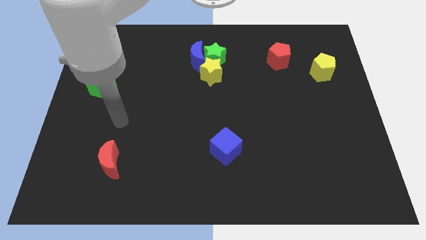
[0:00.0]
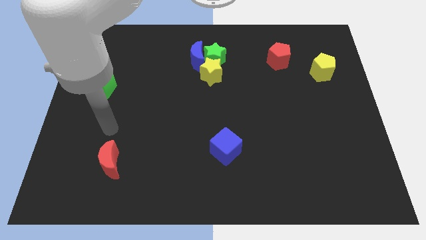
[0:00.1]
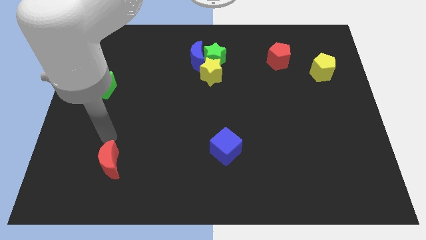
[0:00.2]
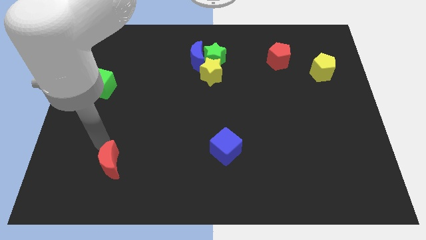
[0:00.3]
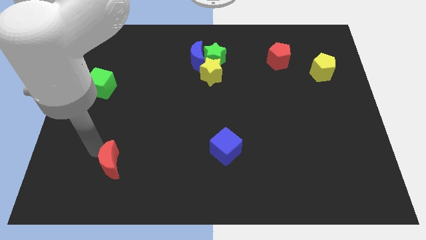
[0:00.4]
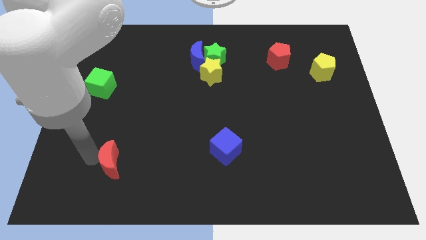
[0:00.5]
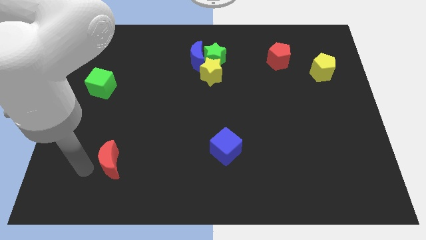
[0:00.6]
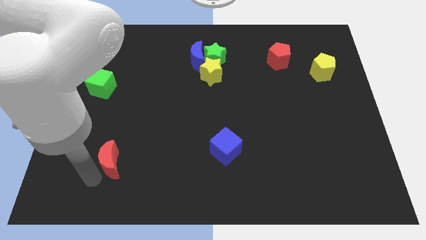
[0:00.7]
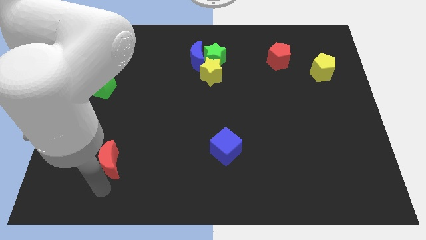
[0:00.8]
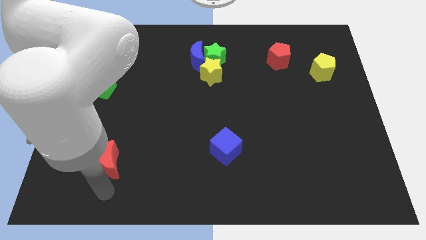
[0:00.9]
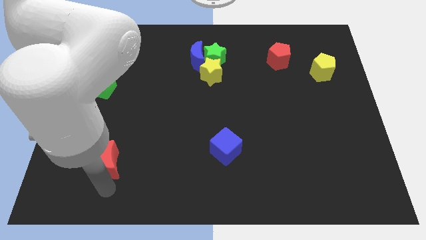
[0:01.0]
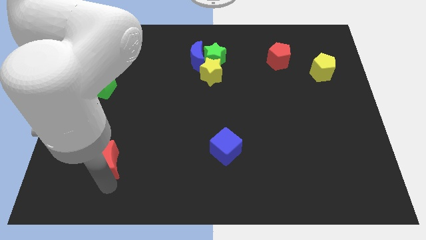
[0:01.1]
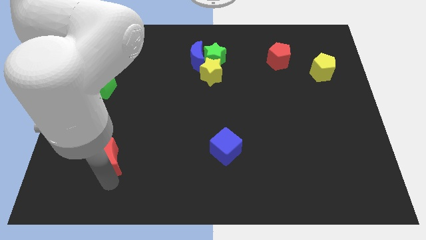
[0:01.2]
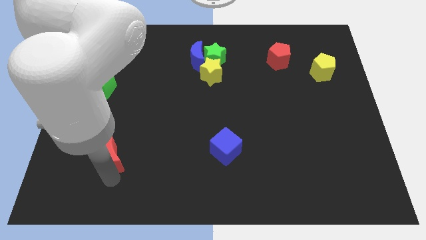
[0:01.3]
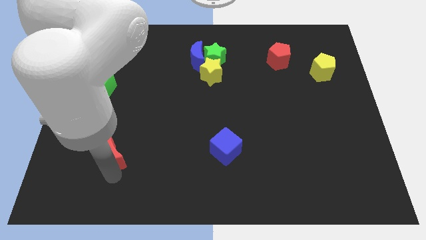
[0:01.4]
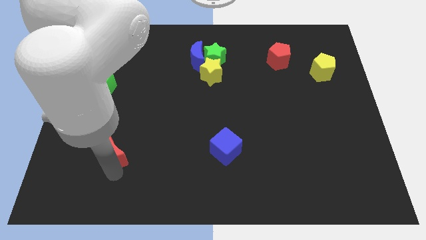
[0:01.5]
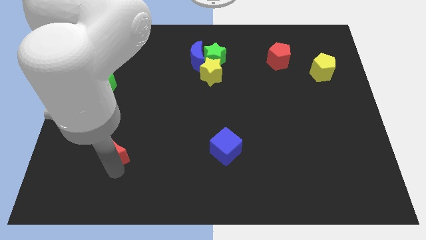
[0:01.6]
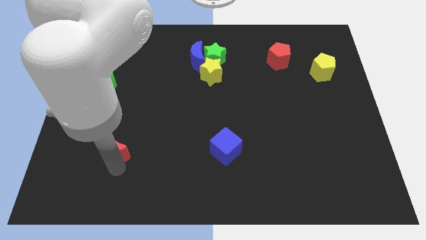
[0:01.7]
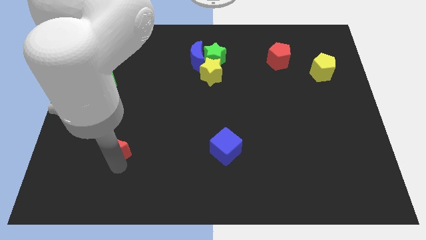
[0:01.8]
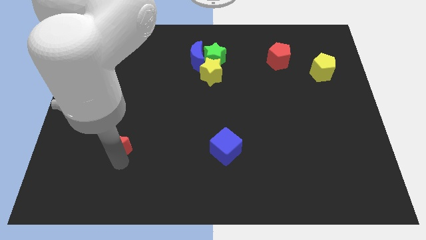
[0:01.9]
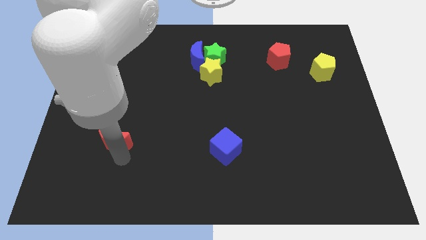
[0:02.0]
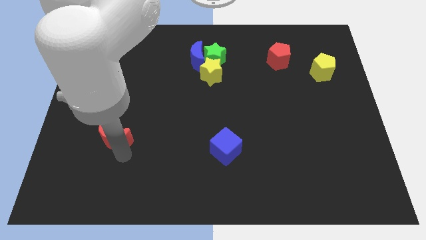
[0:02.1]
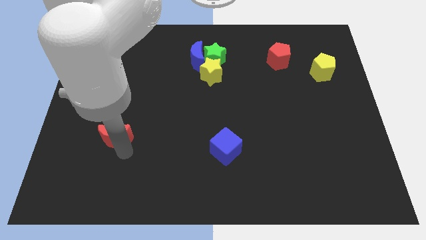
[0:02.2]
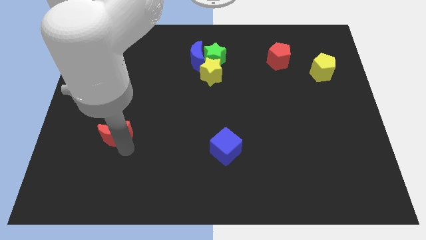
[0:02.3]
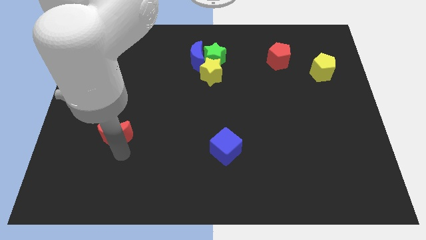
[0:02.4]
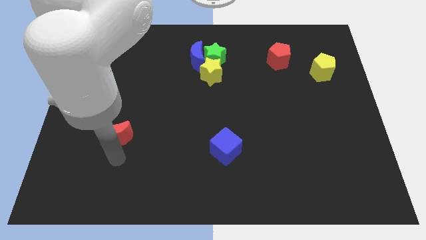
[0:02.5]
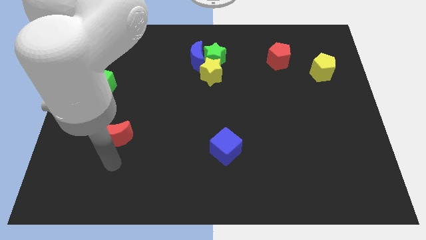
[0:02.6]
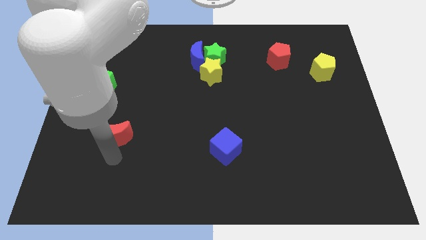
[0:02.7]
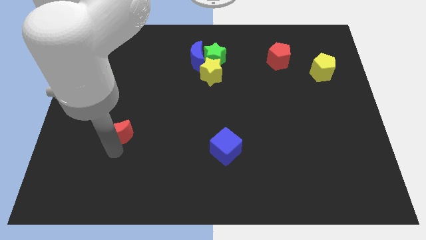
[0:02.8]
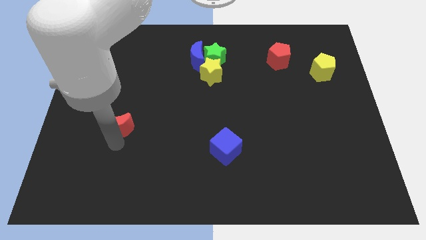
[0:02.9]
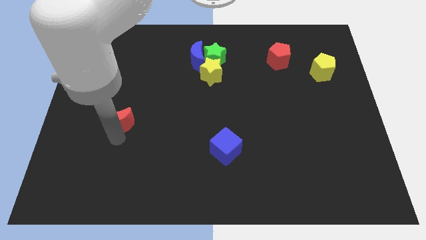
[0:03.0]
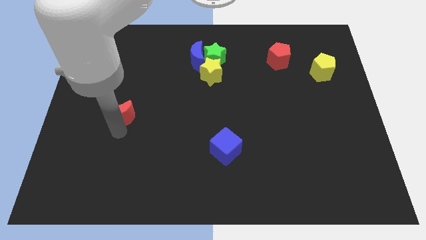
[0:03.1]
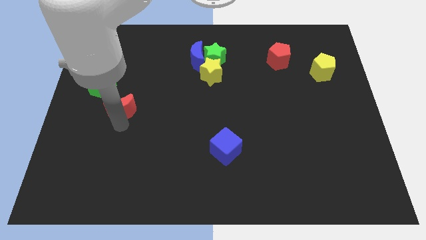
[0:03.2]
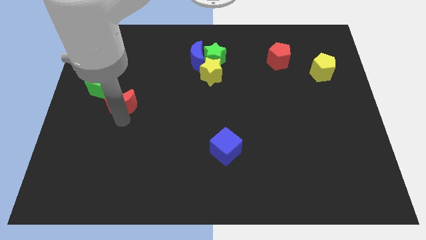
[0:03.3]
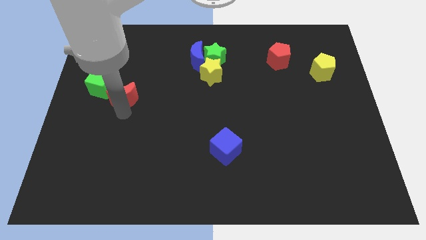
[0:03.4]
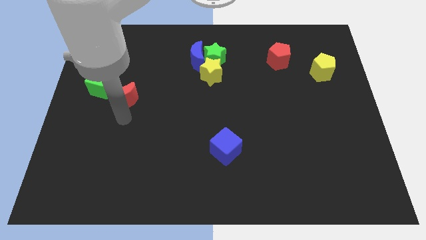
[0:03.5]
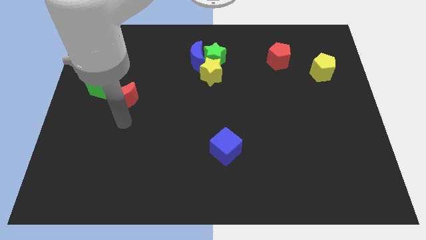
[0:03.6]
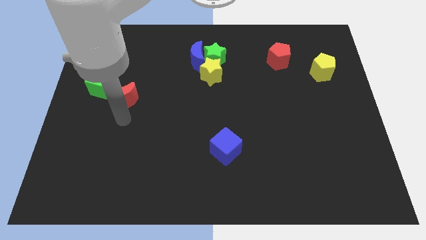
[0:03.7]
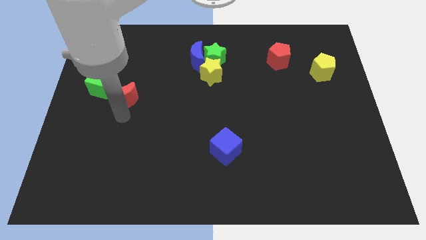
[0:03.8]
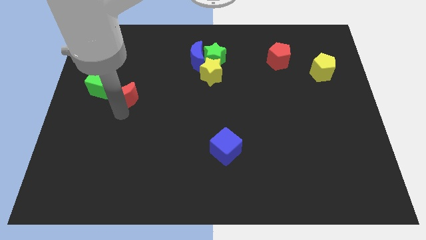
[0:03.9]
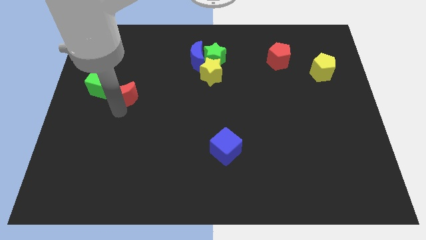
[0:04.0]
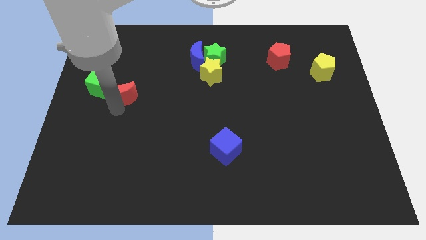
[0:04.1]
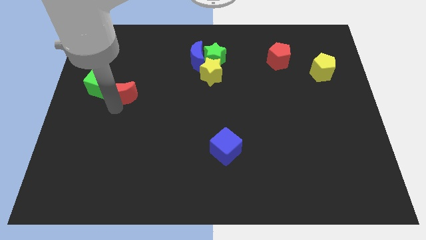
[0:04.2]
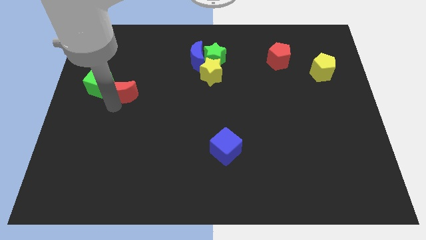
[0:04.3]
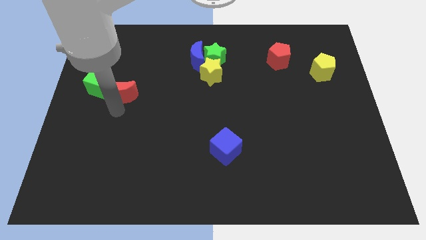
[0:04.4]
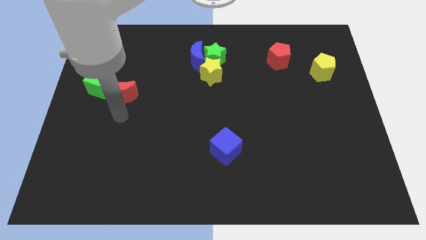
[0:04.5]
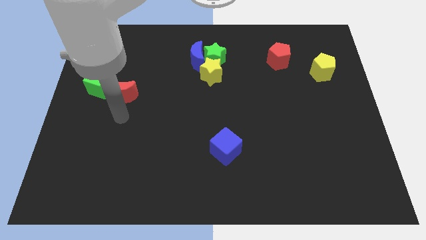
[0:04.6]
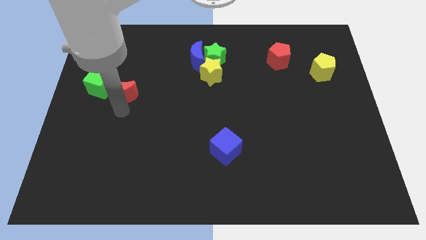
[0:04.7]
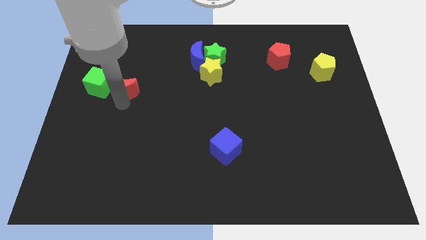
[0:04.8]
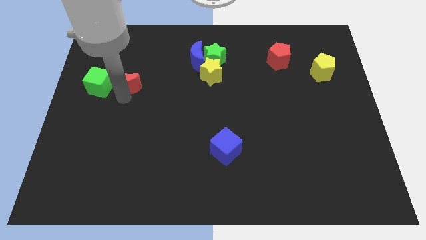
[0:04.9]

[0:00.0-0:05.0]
push the red moon to the top right of the green cube

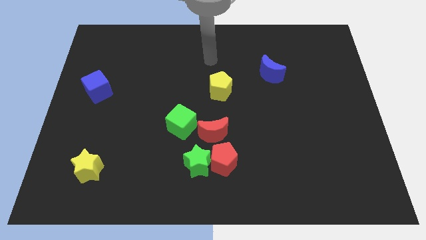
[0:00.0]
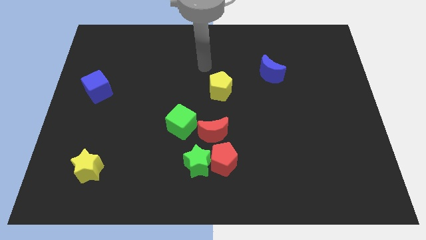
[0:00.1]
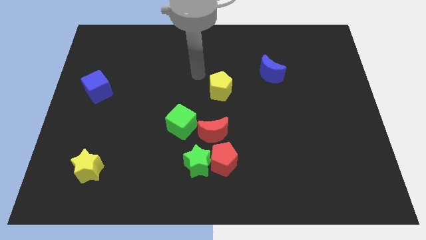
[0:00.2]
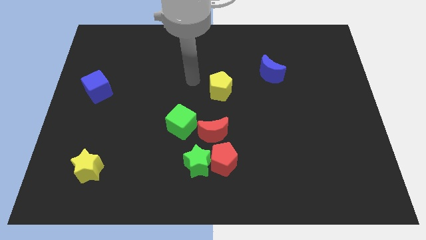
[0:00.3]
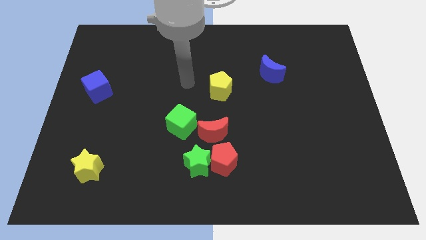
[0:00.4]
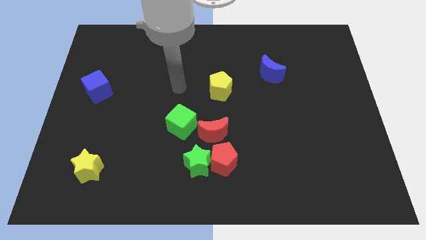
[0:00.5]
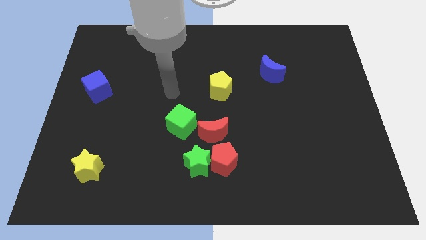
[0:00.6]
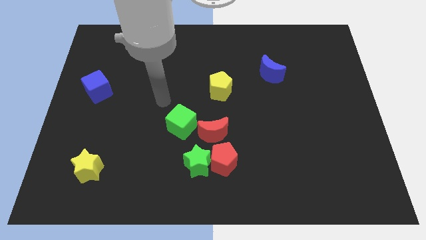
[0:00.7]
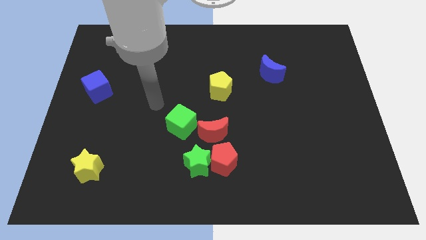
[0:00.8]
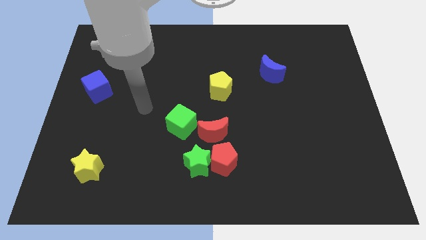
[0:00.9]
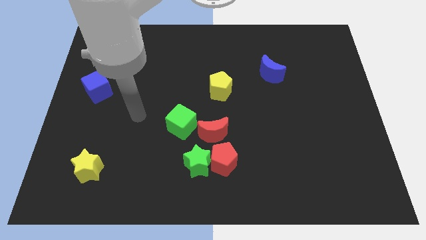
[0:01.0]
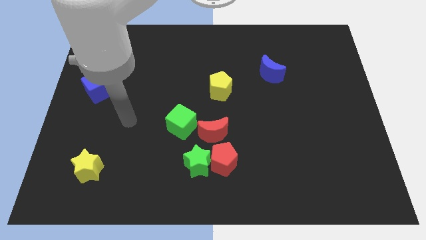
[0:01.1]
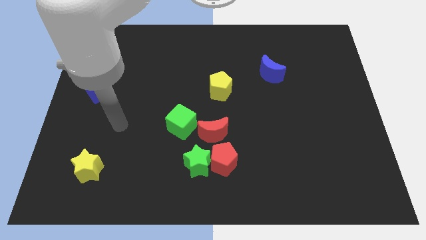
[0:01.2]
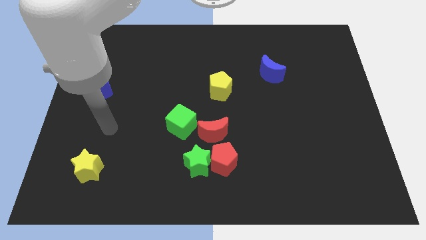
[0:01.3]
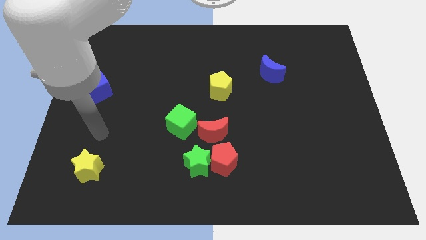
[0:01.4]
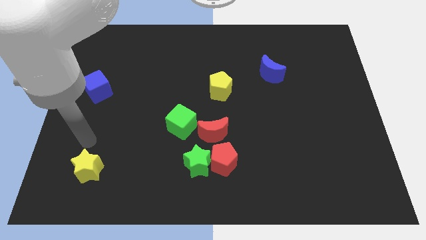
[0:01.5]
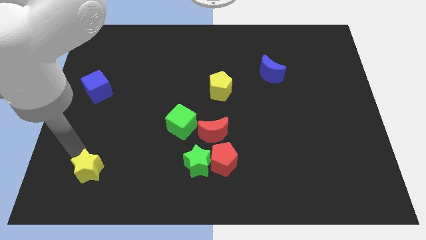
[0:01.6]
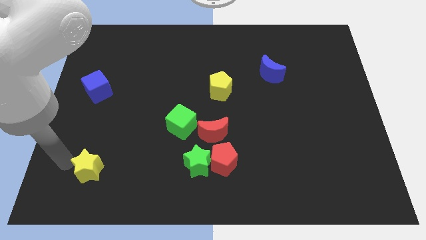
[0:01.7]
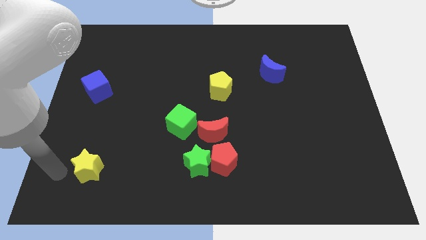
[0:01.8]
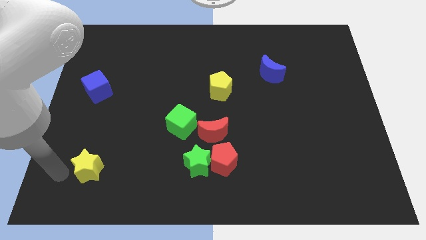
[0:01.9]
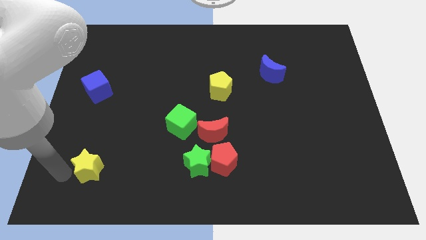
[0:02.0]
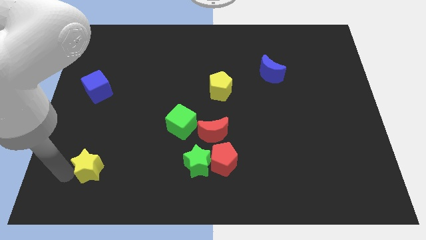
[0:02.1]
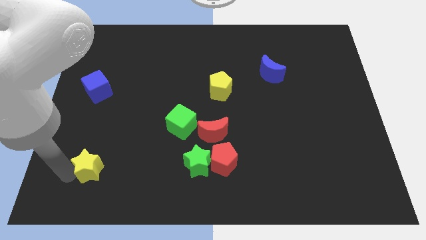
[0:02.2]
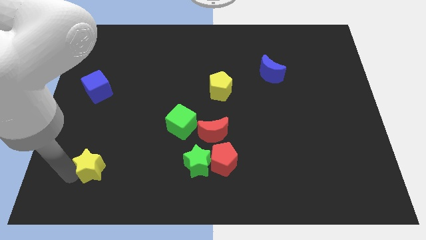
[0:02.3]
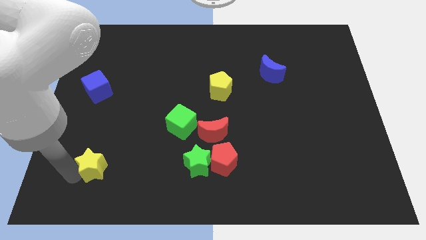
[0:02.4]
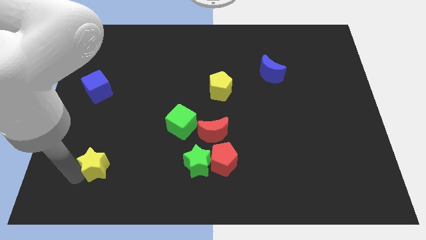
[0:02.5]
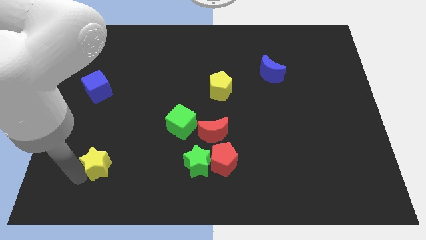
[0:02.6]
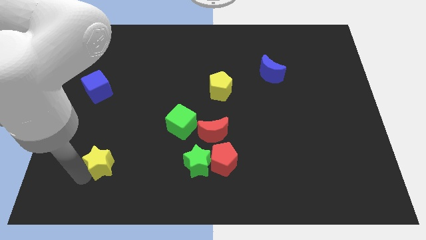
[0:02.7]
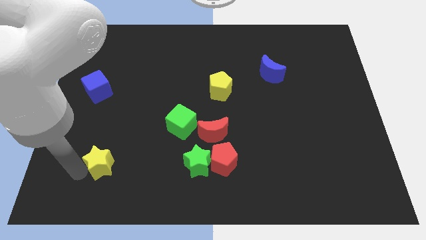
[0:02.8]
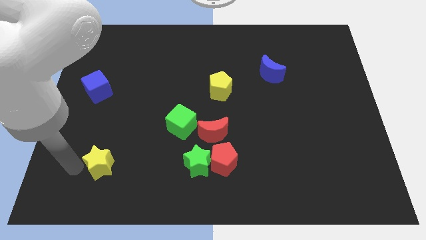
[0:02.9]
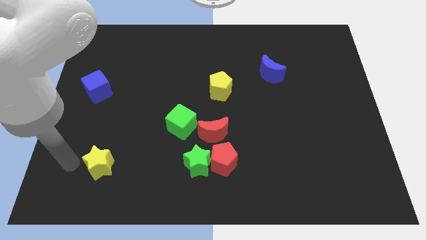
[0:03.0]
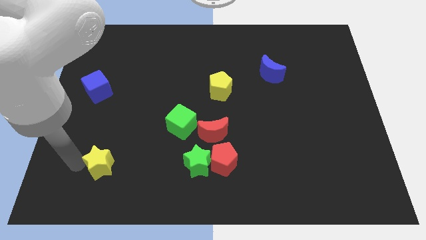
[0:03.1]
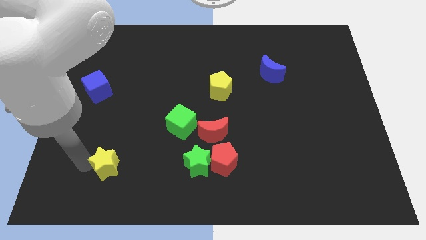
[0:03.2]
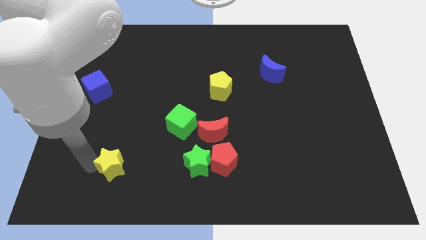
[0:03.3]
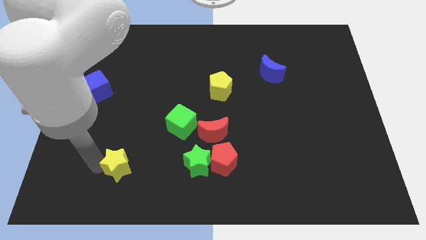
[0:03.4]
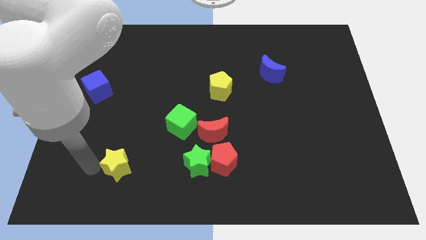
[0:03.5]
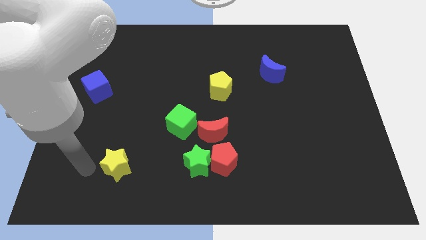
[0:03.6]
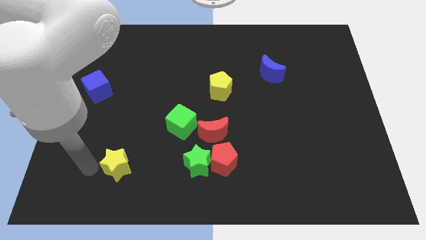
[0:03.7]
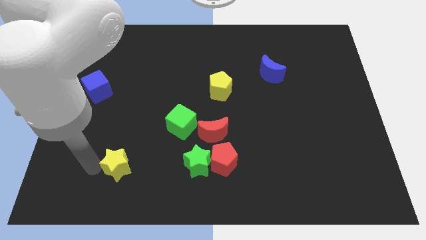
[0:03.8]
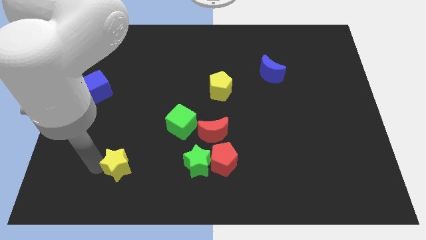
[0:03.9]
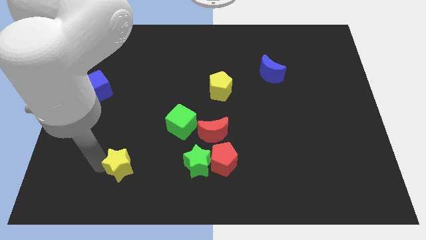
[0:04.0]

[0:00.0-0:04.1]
move the yellow star to the left of the green star
